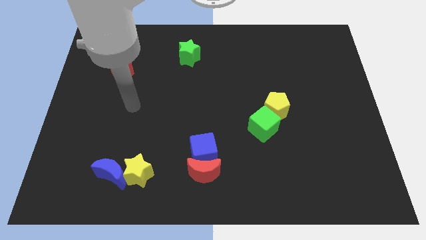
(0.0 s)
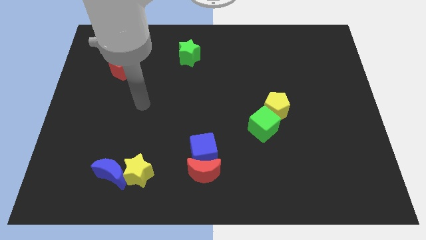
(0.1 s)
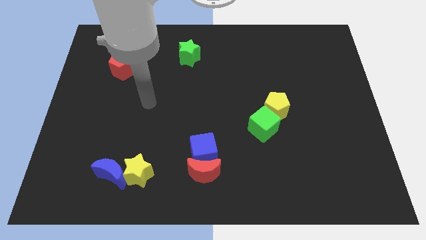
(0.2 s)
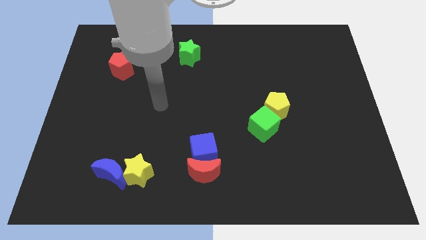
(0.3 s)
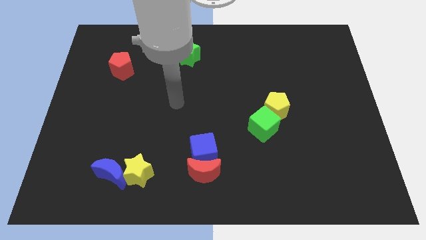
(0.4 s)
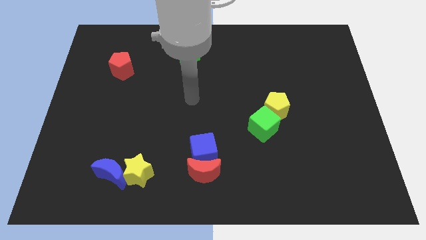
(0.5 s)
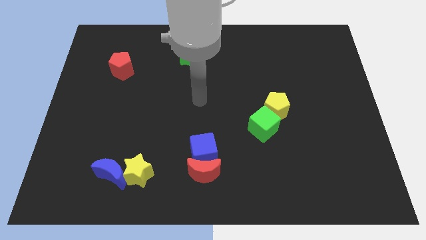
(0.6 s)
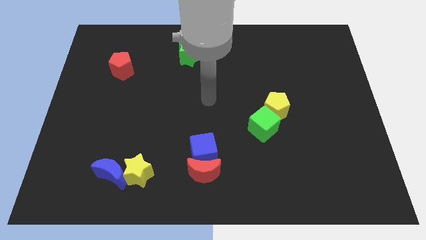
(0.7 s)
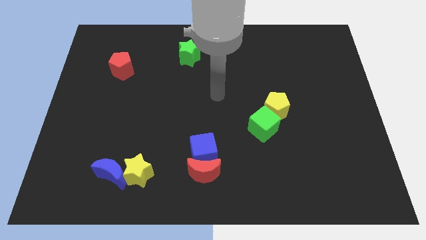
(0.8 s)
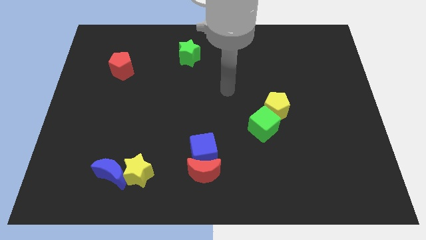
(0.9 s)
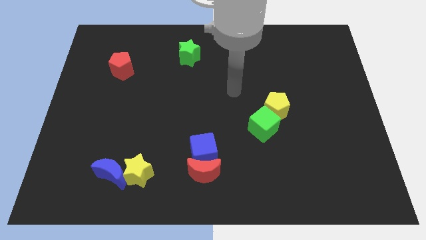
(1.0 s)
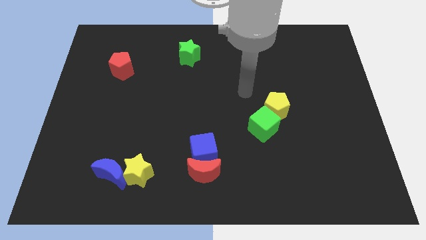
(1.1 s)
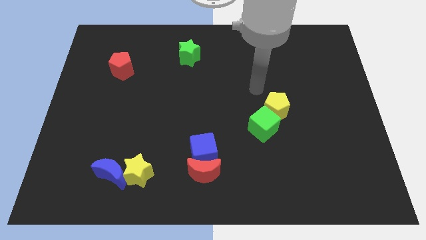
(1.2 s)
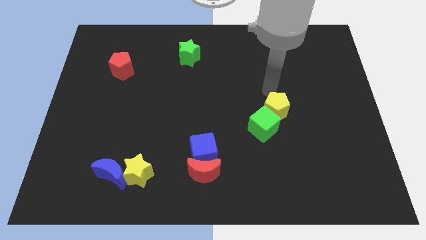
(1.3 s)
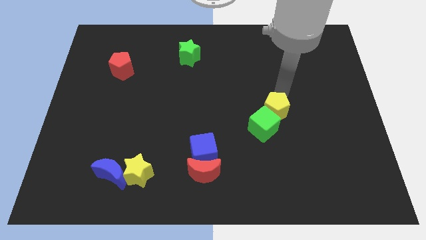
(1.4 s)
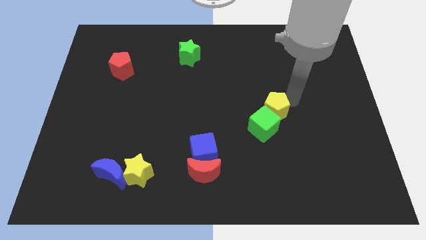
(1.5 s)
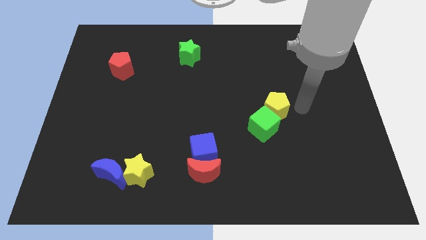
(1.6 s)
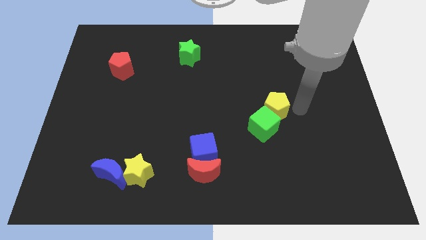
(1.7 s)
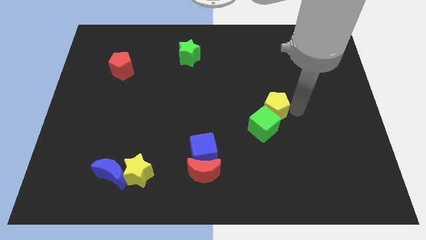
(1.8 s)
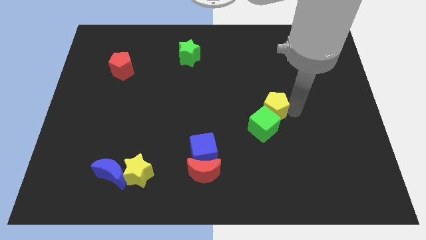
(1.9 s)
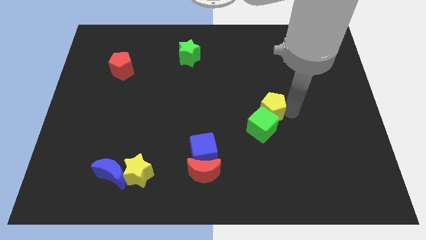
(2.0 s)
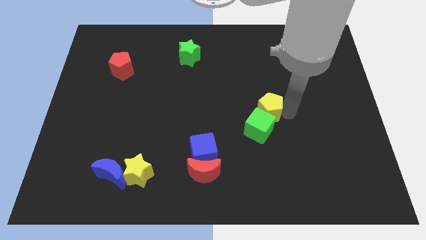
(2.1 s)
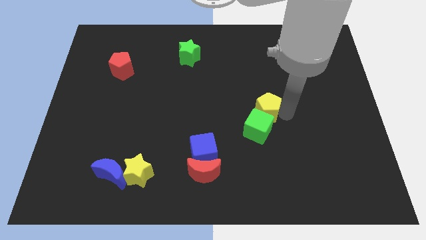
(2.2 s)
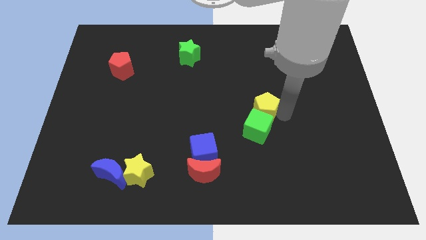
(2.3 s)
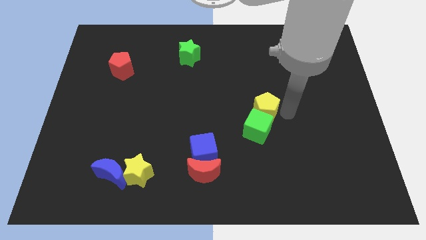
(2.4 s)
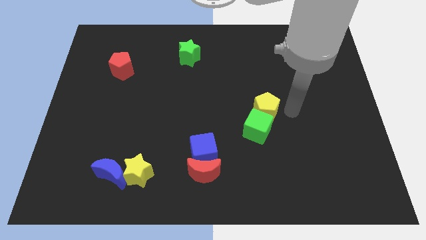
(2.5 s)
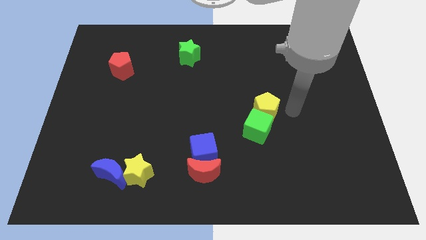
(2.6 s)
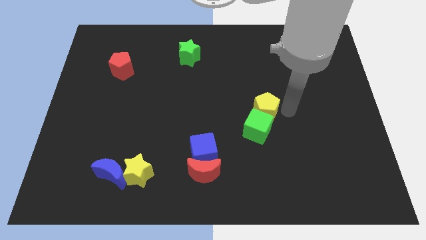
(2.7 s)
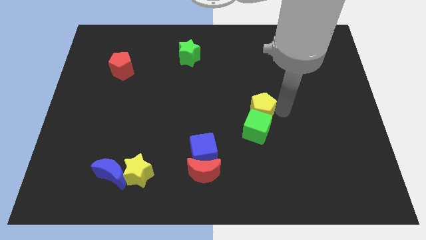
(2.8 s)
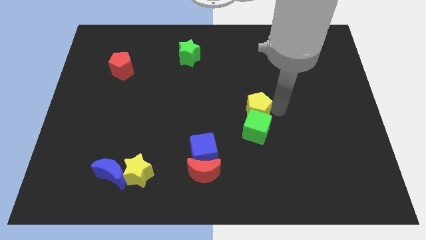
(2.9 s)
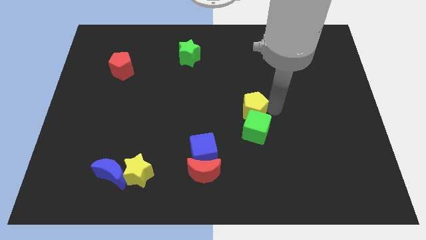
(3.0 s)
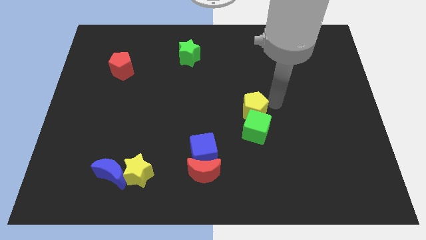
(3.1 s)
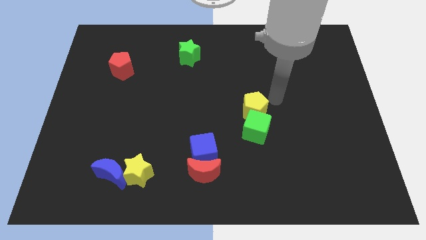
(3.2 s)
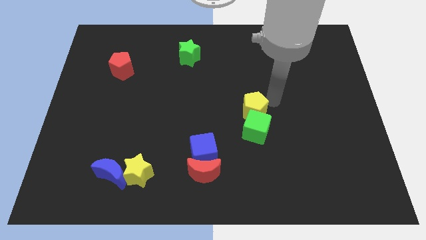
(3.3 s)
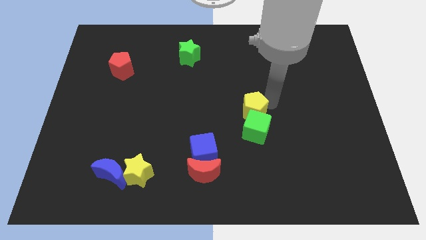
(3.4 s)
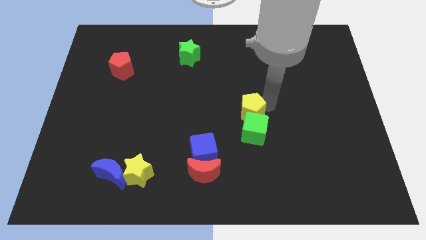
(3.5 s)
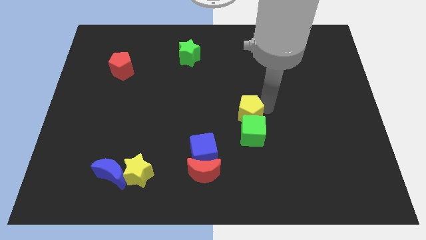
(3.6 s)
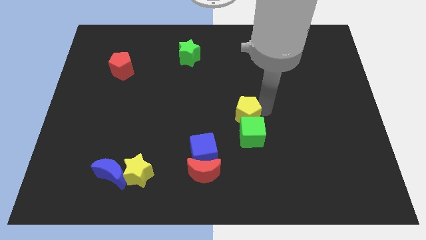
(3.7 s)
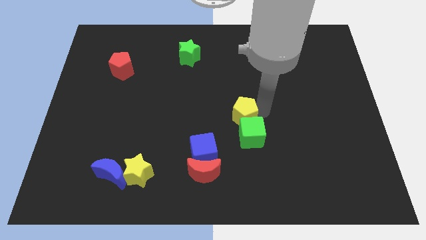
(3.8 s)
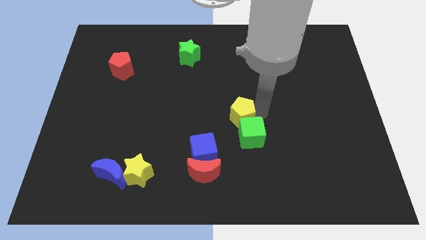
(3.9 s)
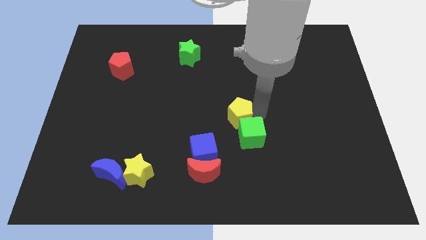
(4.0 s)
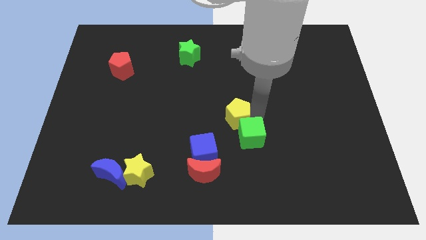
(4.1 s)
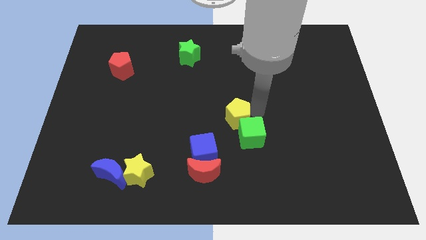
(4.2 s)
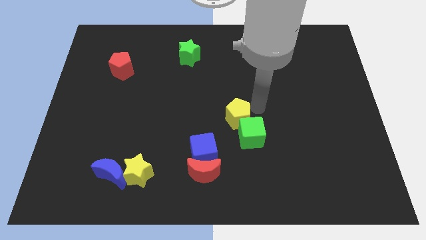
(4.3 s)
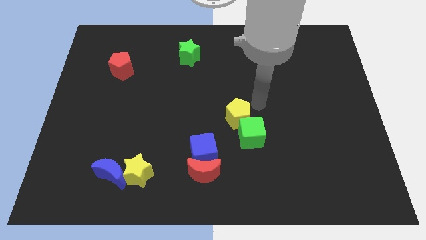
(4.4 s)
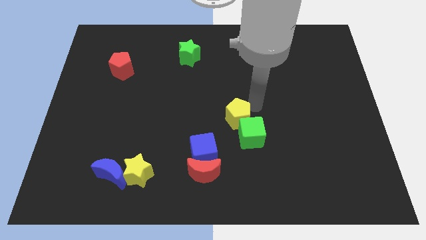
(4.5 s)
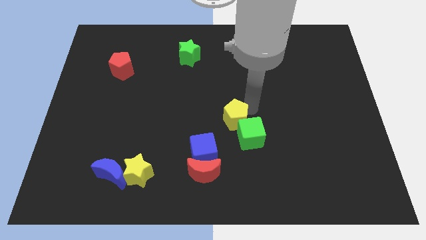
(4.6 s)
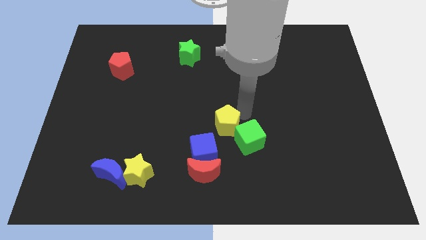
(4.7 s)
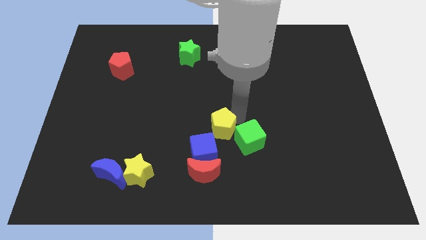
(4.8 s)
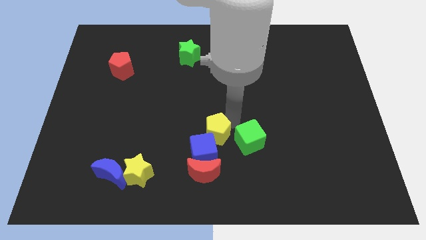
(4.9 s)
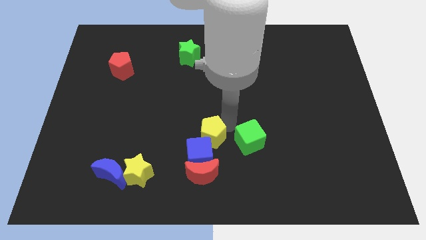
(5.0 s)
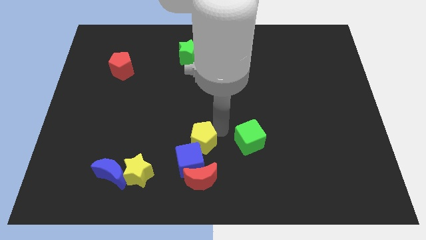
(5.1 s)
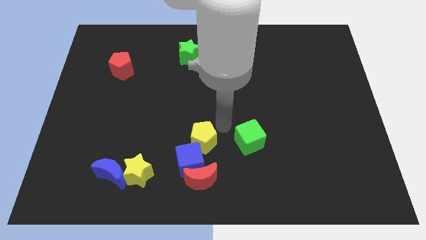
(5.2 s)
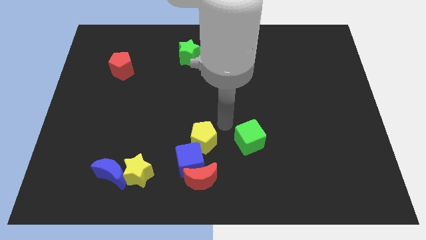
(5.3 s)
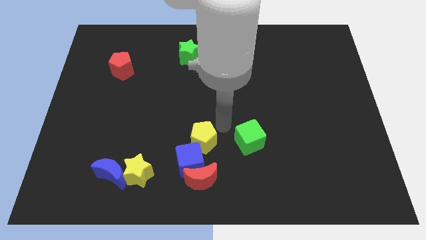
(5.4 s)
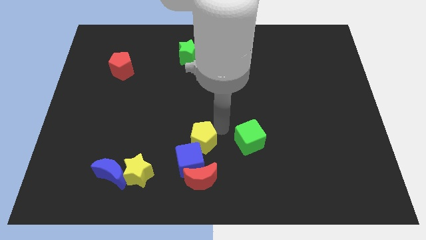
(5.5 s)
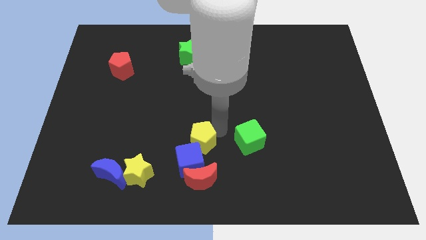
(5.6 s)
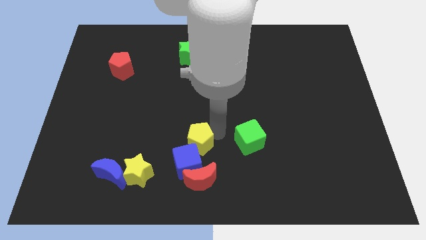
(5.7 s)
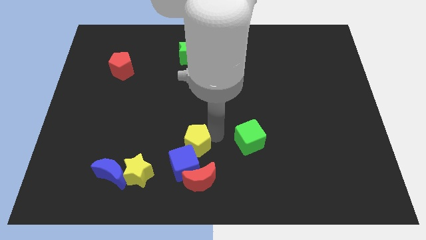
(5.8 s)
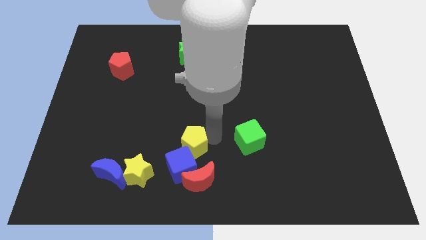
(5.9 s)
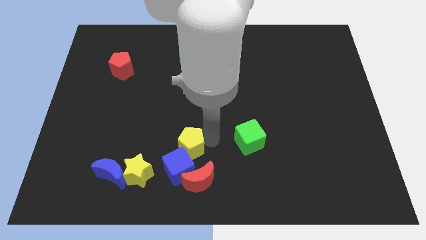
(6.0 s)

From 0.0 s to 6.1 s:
slide the yellow pentagon diagonally up and to the left of the red moon
